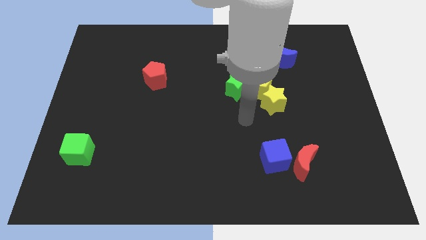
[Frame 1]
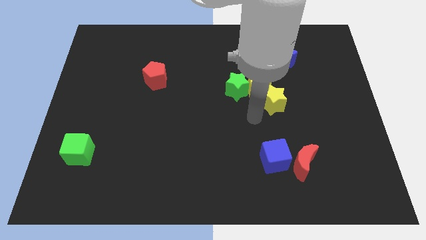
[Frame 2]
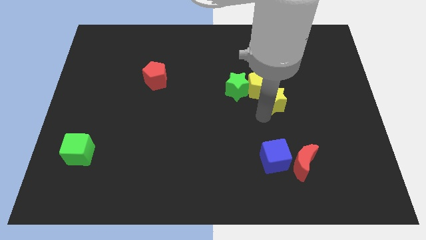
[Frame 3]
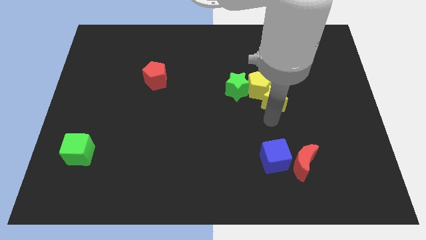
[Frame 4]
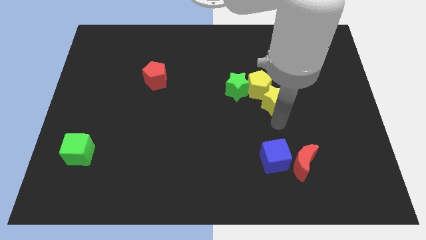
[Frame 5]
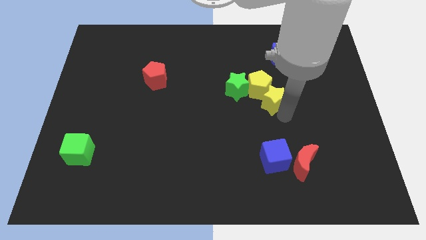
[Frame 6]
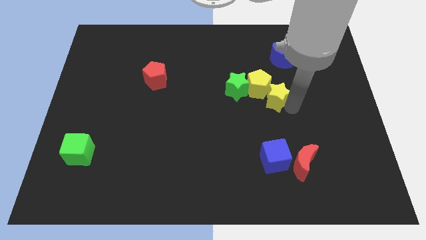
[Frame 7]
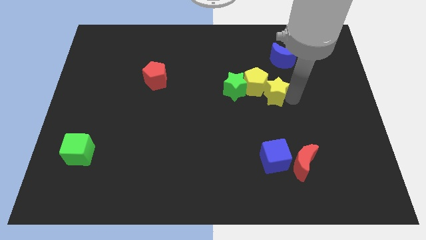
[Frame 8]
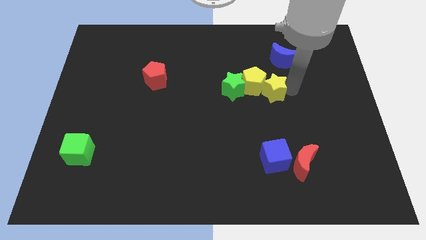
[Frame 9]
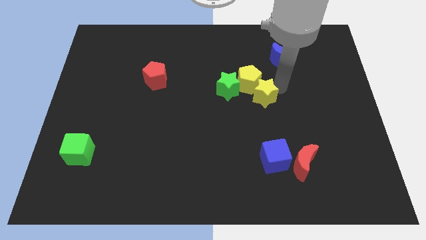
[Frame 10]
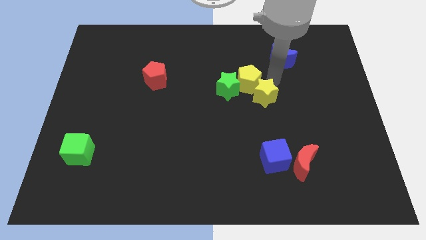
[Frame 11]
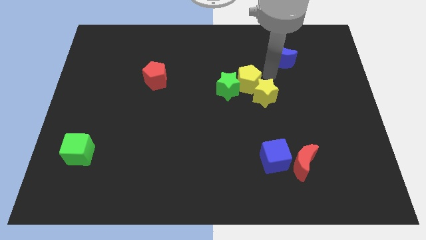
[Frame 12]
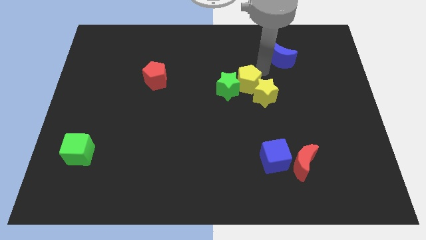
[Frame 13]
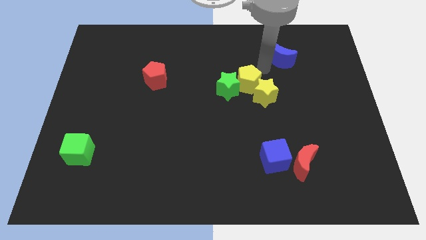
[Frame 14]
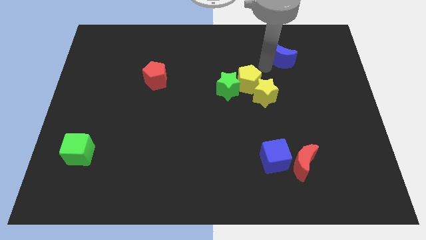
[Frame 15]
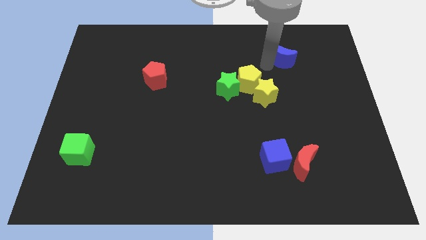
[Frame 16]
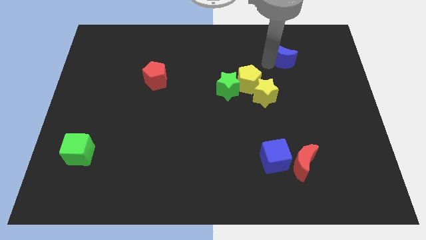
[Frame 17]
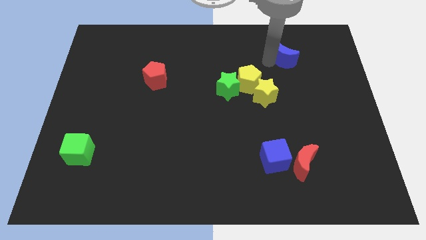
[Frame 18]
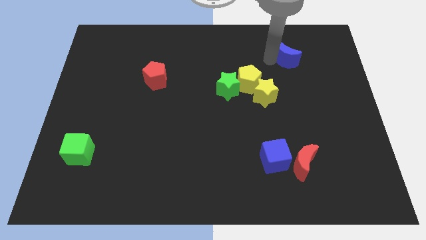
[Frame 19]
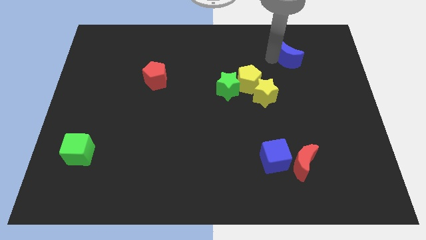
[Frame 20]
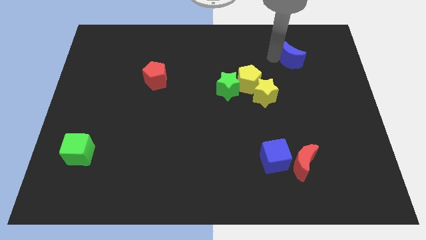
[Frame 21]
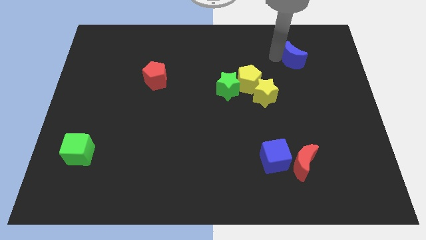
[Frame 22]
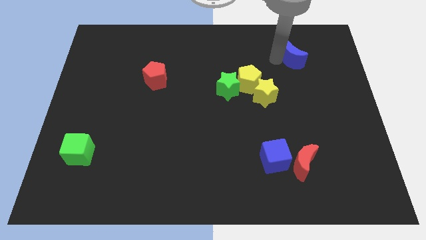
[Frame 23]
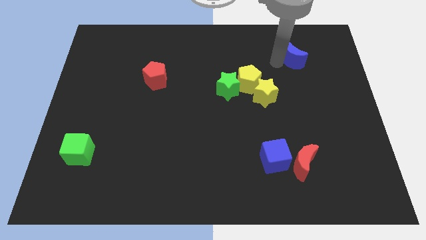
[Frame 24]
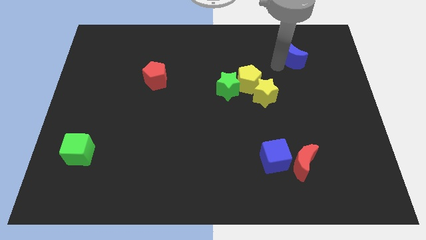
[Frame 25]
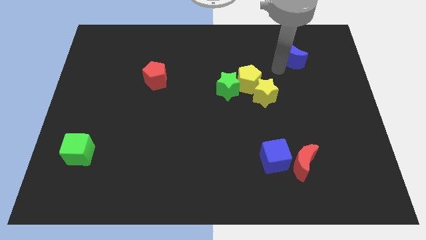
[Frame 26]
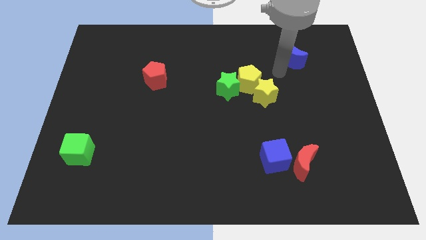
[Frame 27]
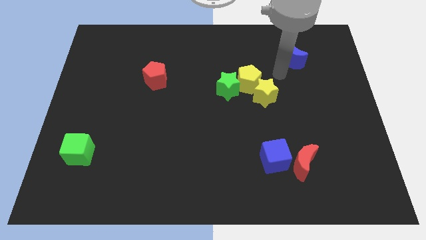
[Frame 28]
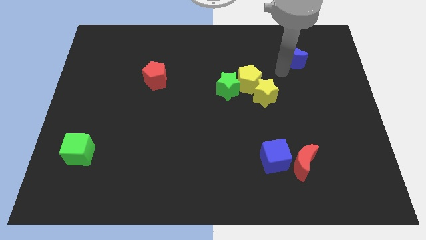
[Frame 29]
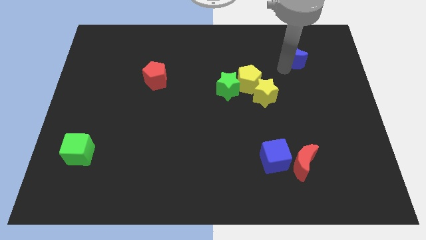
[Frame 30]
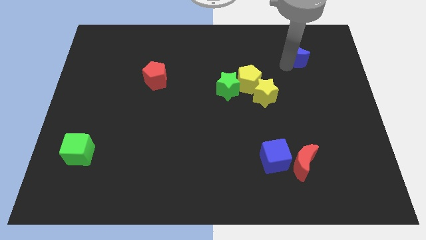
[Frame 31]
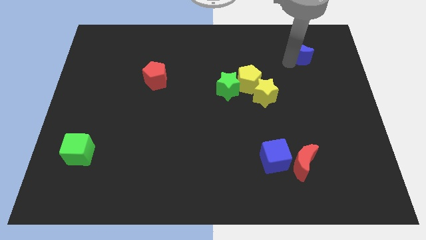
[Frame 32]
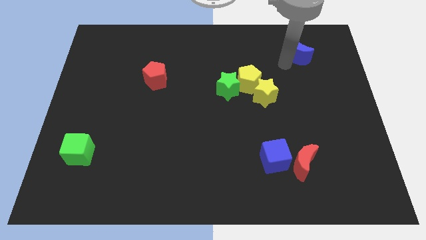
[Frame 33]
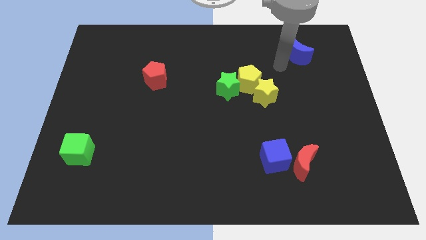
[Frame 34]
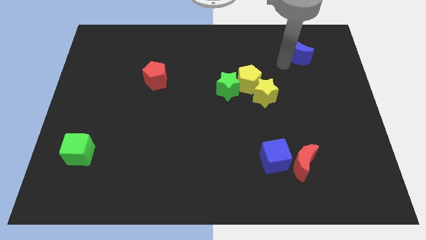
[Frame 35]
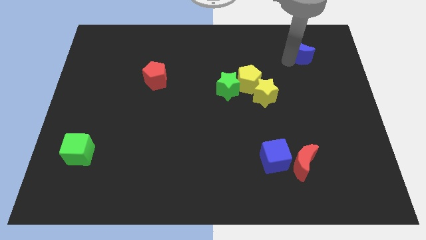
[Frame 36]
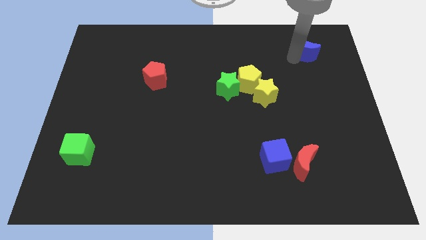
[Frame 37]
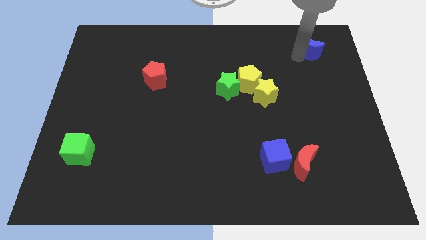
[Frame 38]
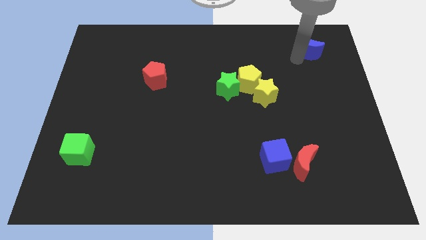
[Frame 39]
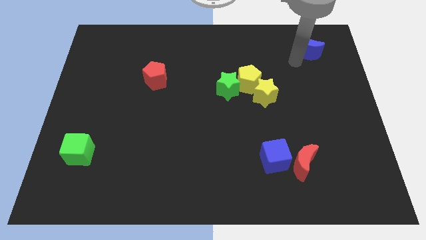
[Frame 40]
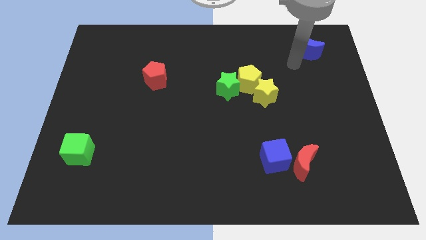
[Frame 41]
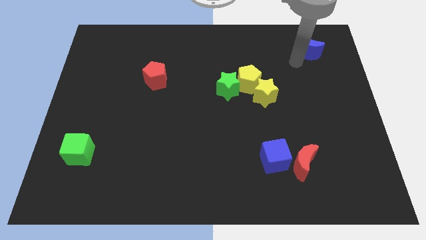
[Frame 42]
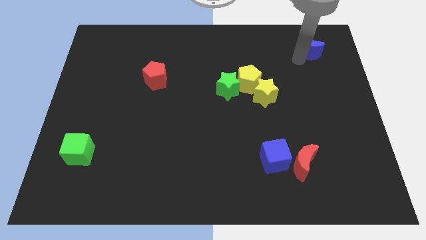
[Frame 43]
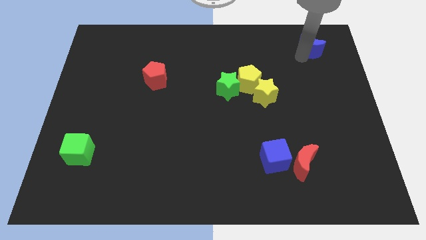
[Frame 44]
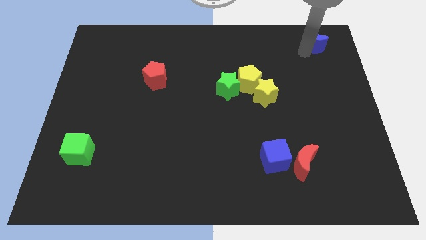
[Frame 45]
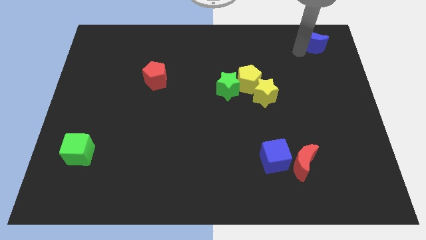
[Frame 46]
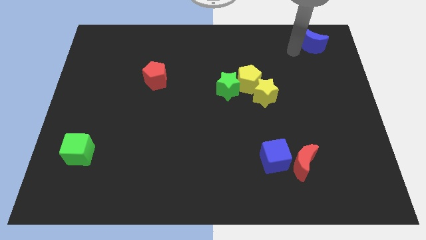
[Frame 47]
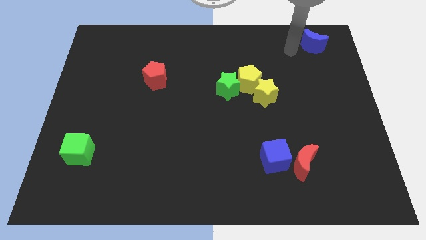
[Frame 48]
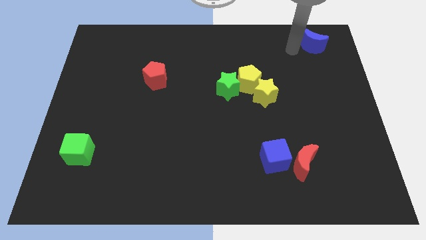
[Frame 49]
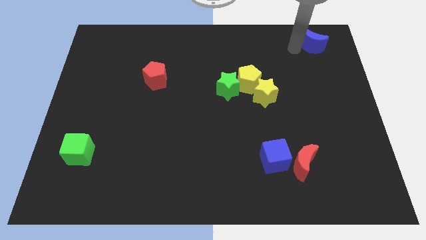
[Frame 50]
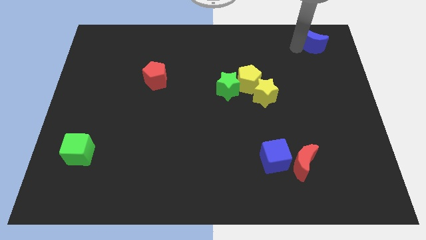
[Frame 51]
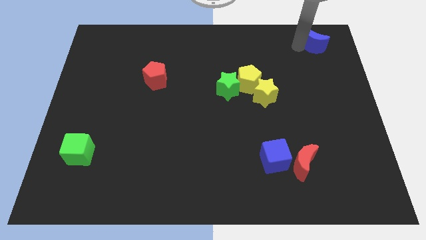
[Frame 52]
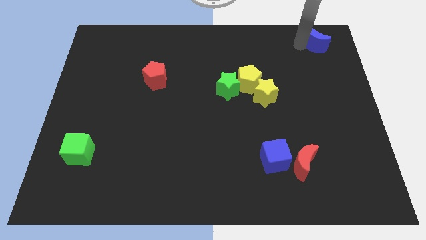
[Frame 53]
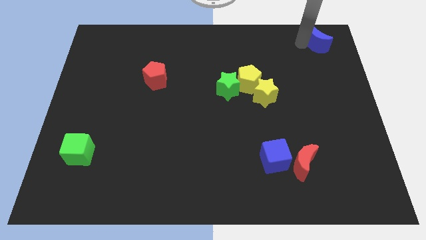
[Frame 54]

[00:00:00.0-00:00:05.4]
push the blue moon to the top right of the board

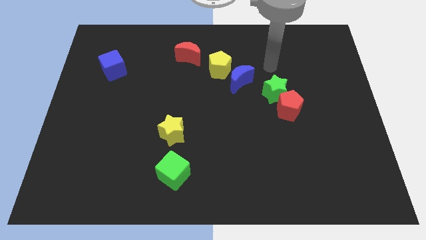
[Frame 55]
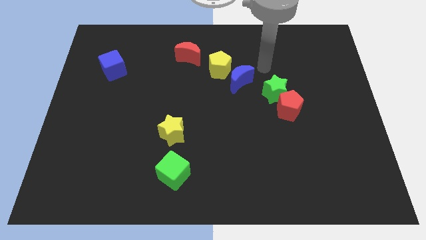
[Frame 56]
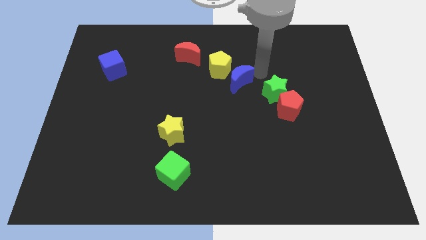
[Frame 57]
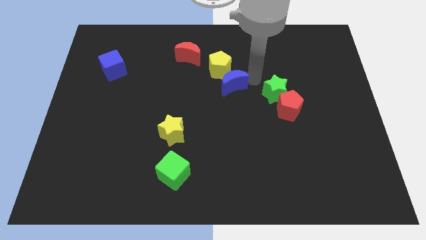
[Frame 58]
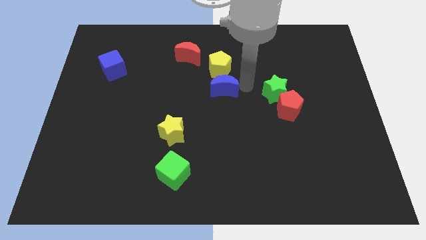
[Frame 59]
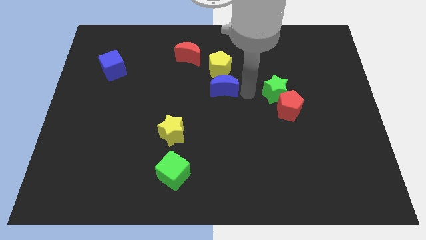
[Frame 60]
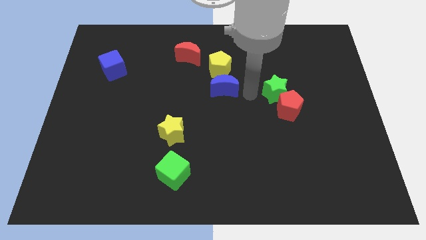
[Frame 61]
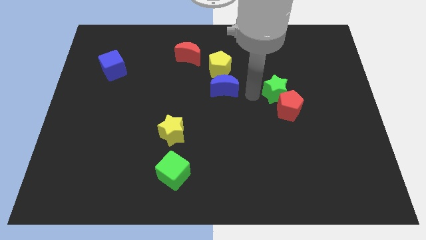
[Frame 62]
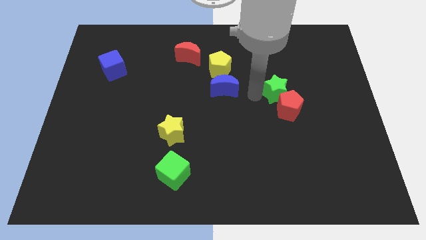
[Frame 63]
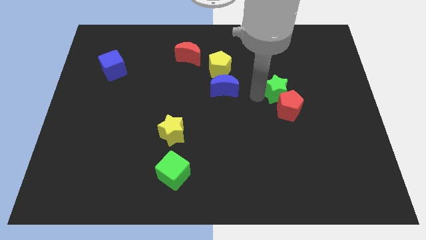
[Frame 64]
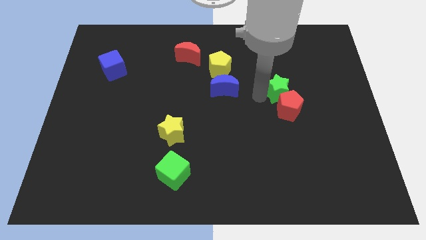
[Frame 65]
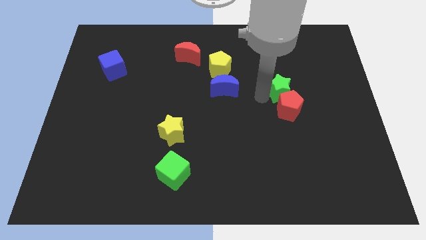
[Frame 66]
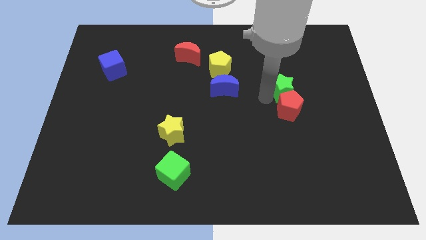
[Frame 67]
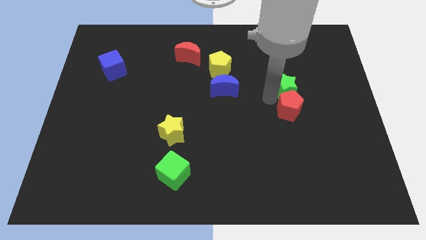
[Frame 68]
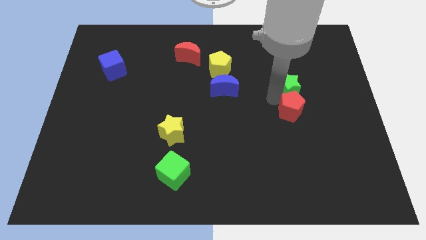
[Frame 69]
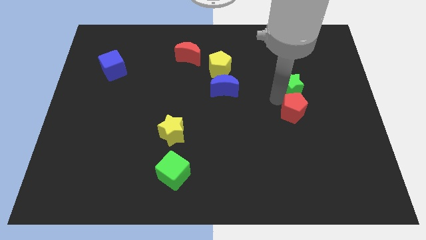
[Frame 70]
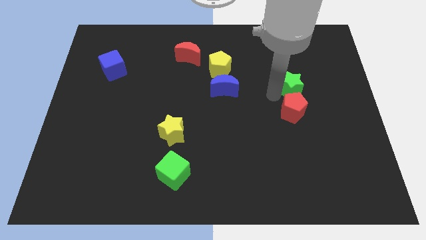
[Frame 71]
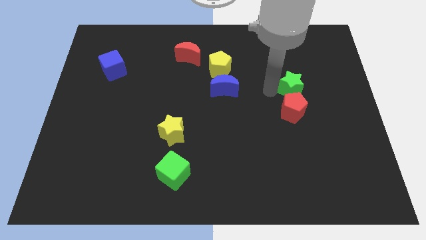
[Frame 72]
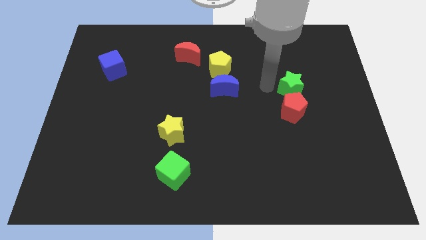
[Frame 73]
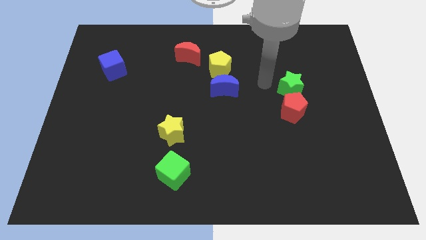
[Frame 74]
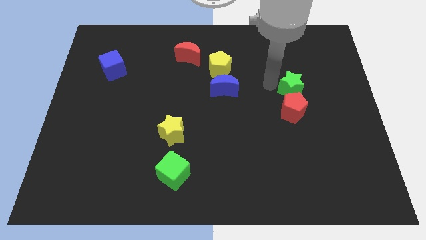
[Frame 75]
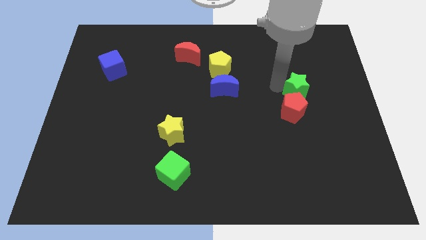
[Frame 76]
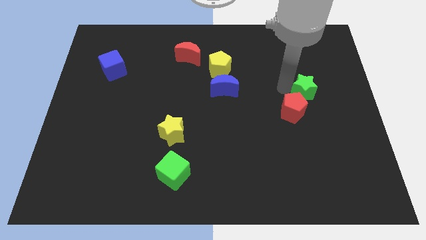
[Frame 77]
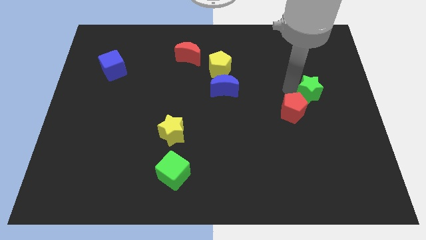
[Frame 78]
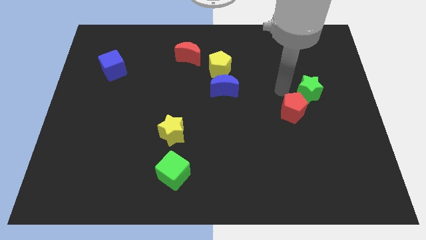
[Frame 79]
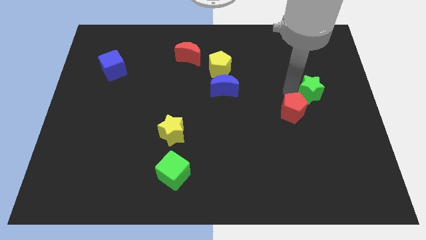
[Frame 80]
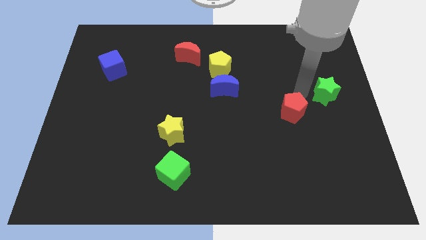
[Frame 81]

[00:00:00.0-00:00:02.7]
slide the green star to the center right
